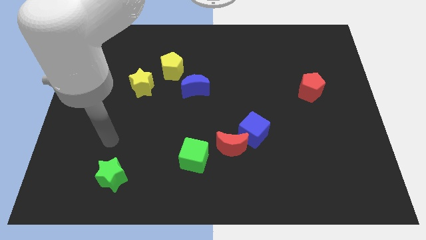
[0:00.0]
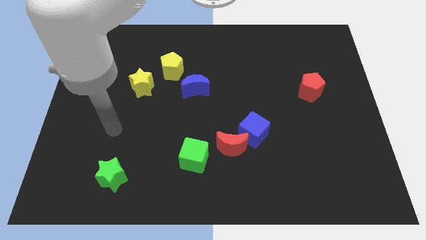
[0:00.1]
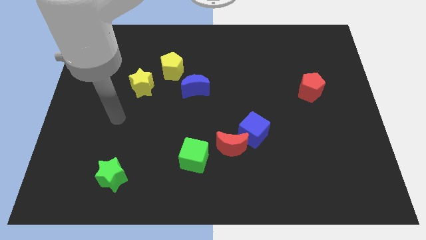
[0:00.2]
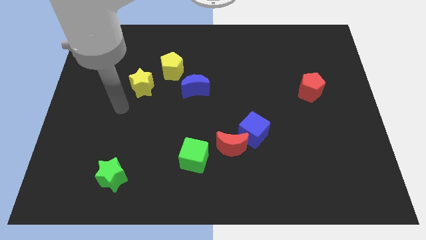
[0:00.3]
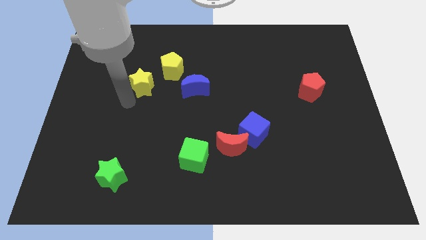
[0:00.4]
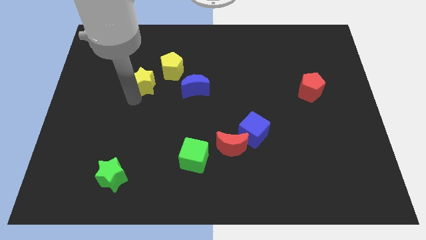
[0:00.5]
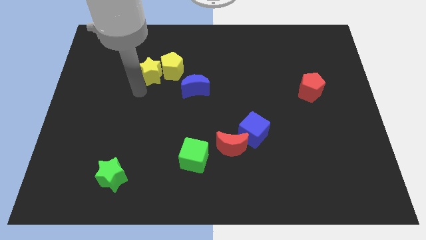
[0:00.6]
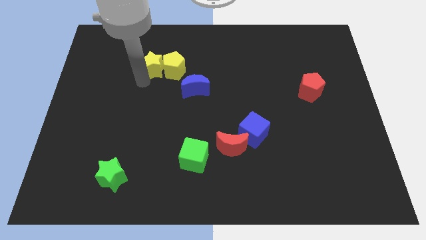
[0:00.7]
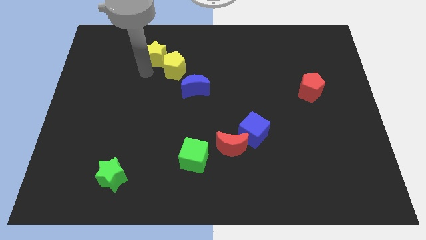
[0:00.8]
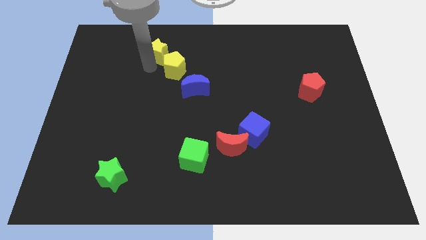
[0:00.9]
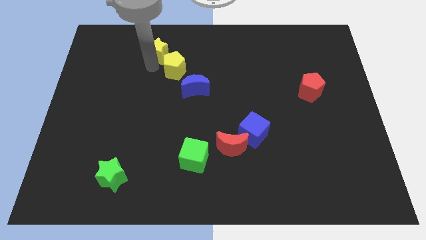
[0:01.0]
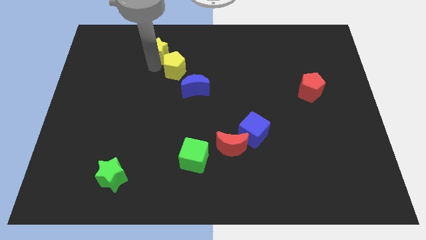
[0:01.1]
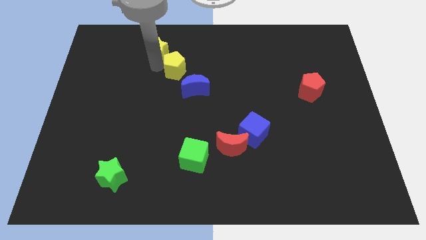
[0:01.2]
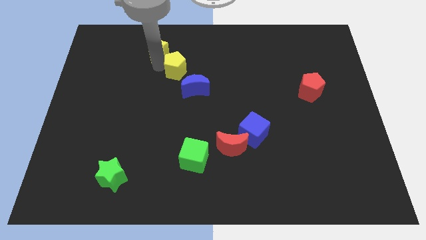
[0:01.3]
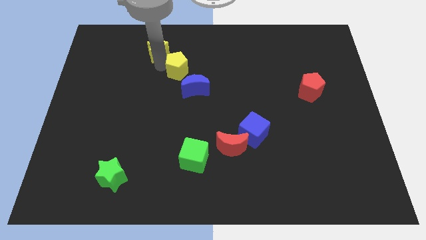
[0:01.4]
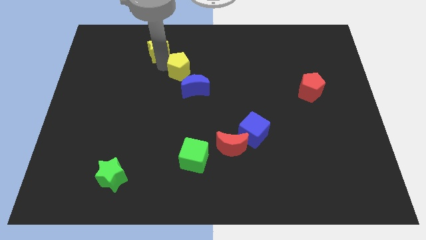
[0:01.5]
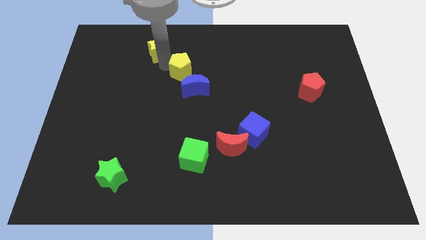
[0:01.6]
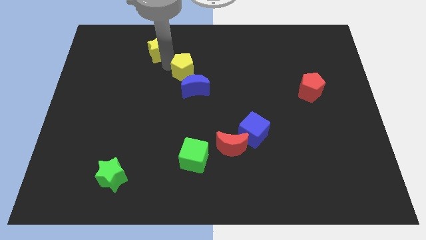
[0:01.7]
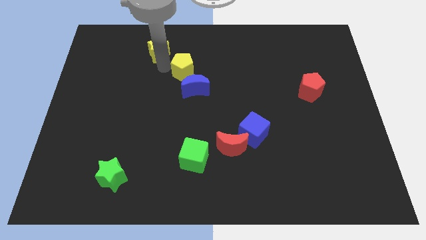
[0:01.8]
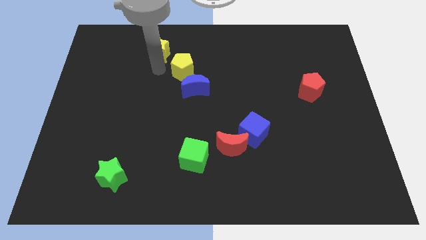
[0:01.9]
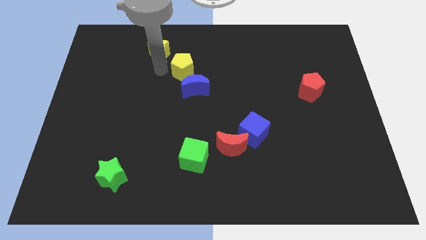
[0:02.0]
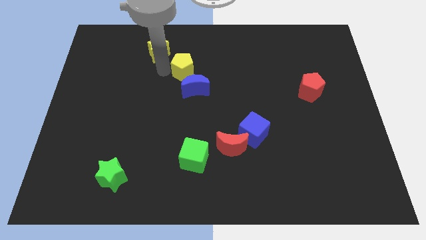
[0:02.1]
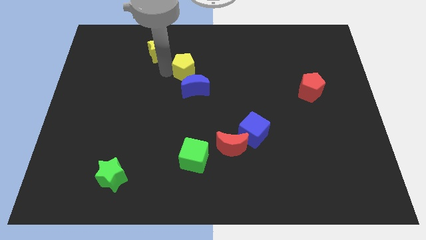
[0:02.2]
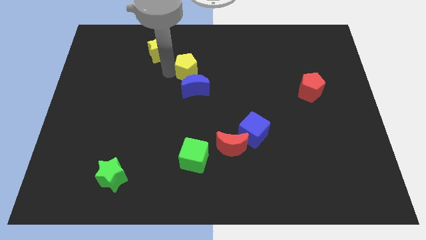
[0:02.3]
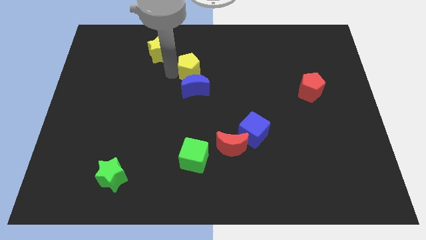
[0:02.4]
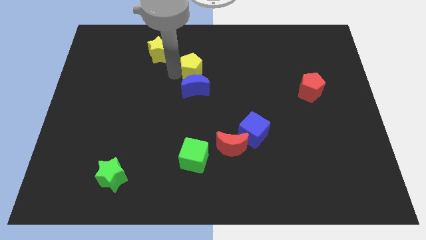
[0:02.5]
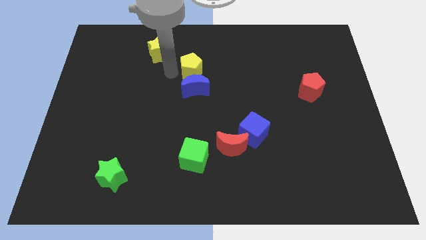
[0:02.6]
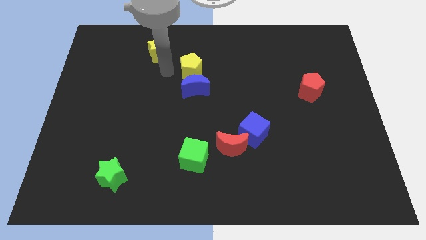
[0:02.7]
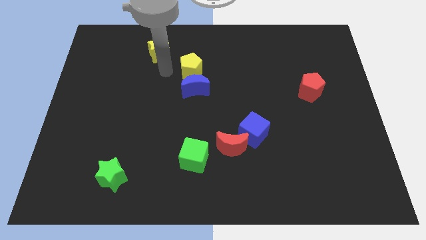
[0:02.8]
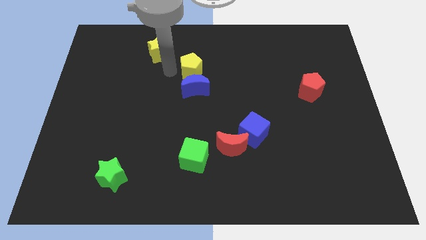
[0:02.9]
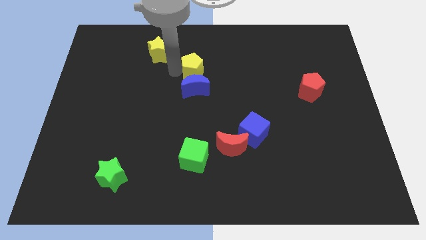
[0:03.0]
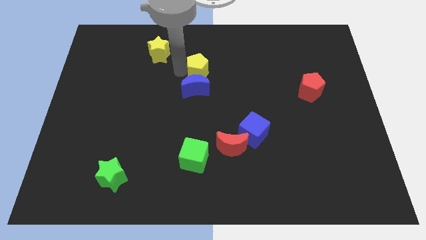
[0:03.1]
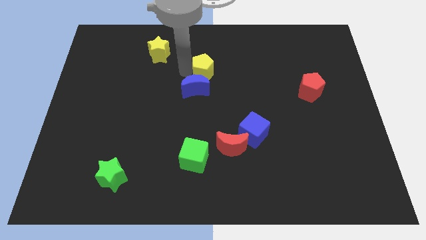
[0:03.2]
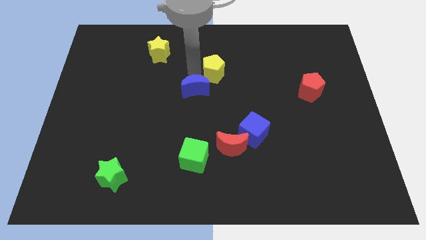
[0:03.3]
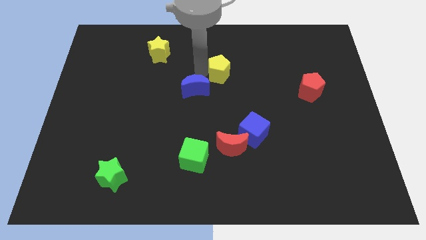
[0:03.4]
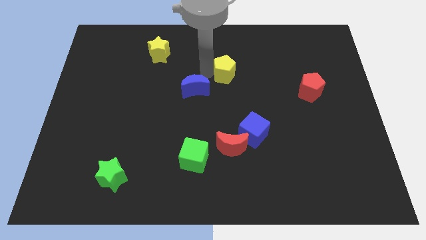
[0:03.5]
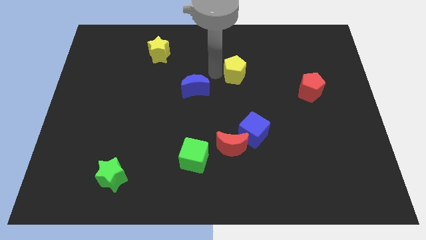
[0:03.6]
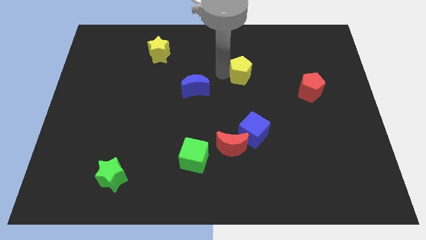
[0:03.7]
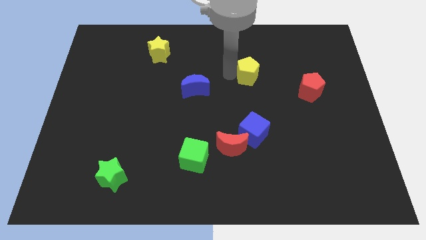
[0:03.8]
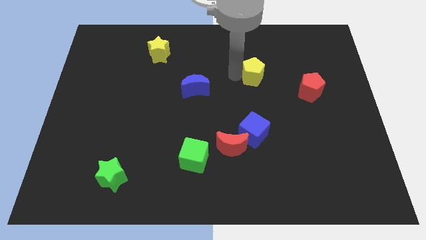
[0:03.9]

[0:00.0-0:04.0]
slide the yellow pentagon to the right

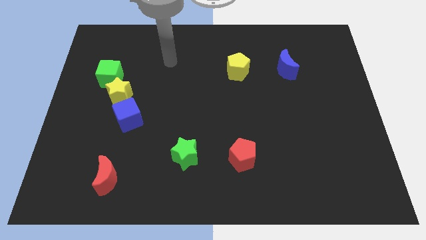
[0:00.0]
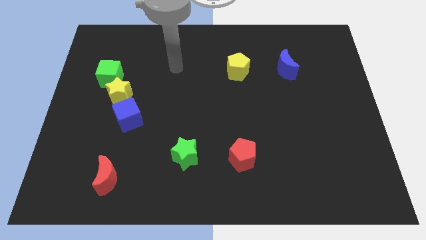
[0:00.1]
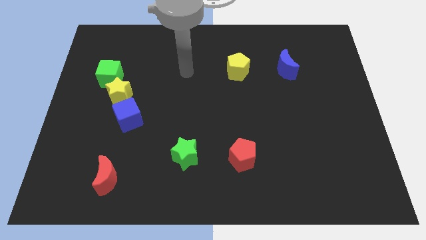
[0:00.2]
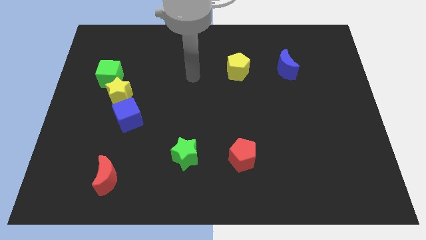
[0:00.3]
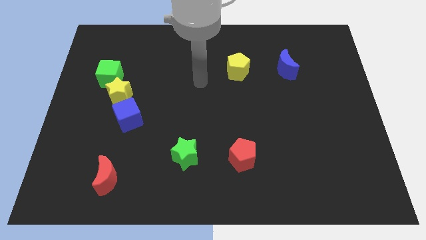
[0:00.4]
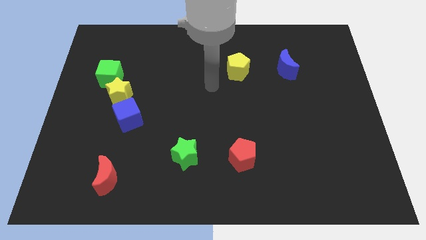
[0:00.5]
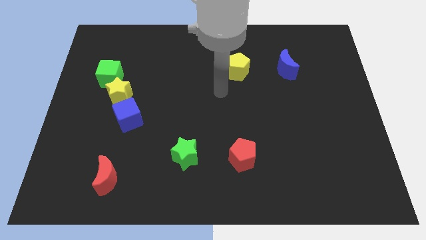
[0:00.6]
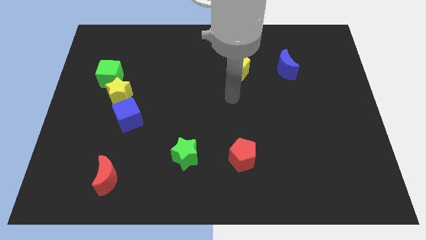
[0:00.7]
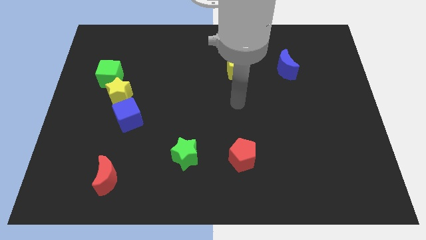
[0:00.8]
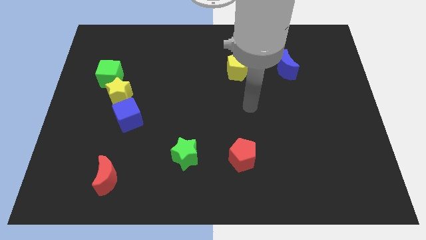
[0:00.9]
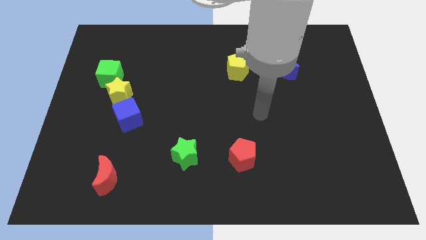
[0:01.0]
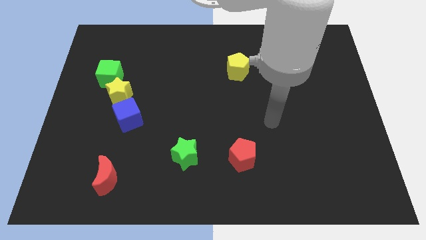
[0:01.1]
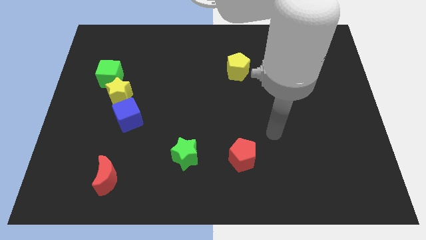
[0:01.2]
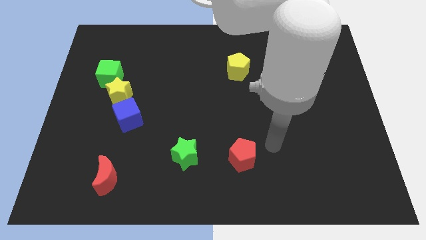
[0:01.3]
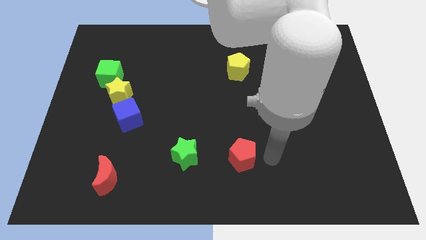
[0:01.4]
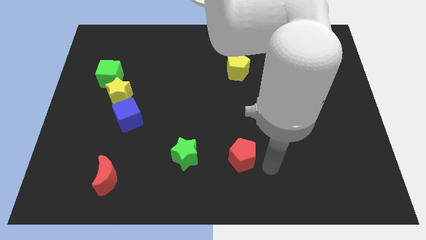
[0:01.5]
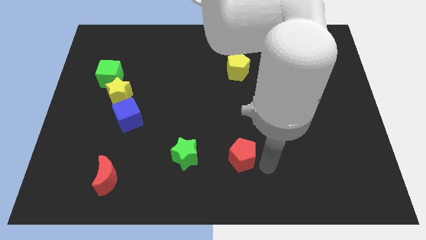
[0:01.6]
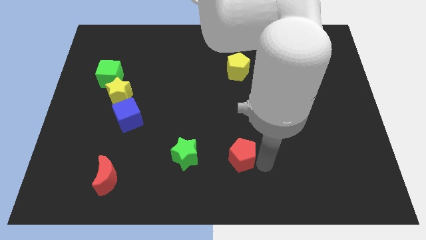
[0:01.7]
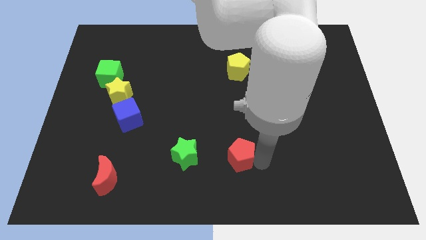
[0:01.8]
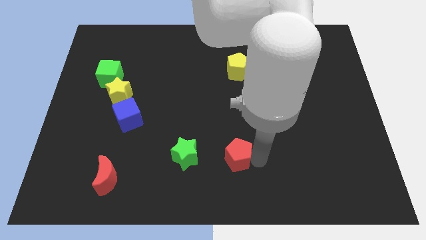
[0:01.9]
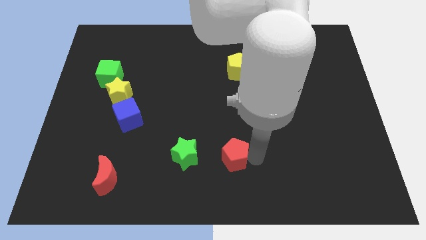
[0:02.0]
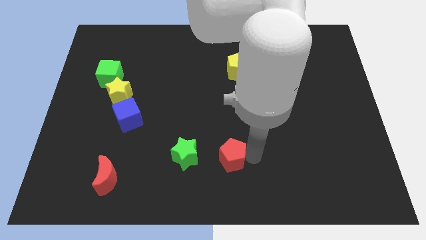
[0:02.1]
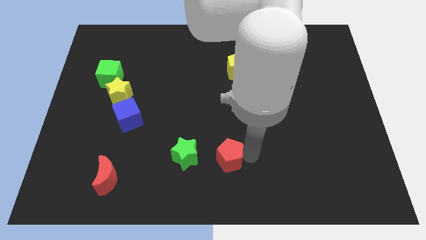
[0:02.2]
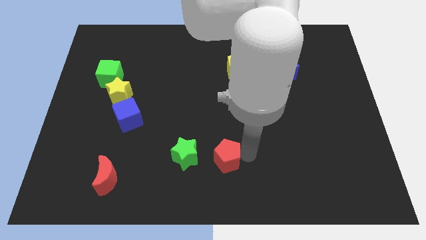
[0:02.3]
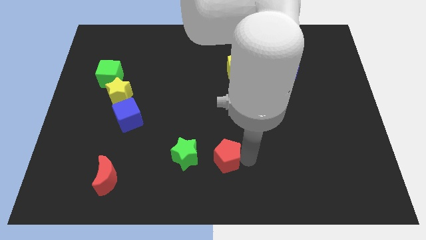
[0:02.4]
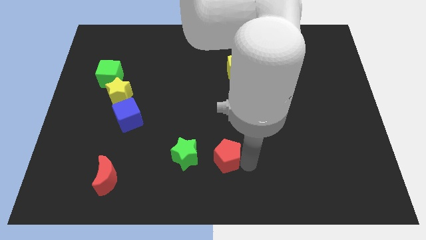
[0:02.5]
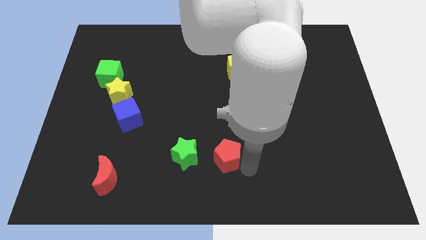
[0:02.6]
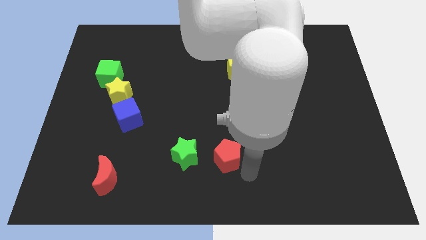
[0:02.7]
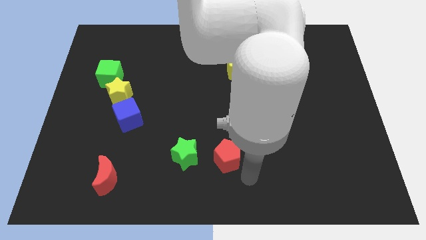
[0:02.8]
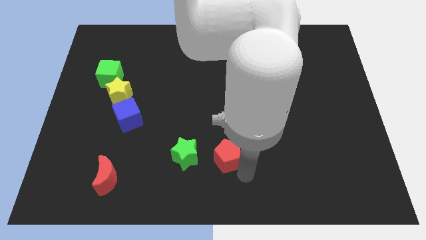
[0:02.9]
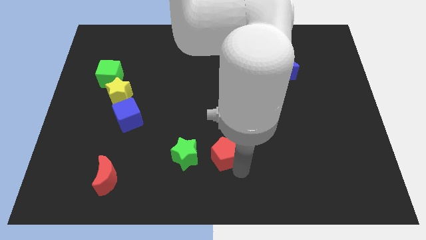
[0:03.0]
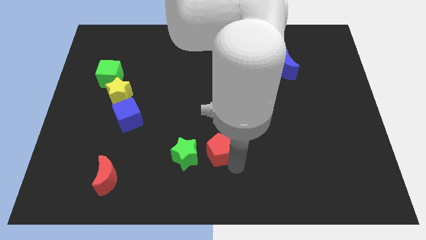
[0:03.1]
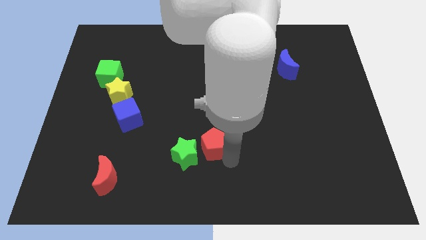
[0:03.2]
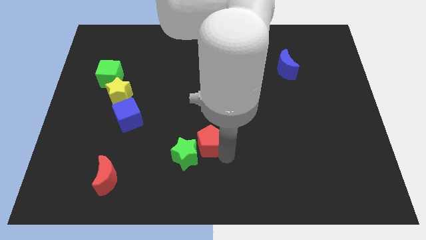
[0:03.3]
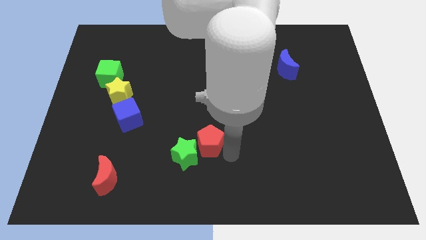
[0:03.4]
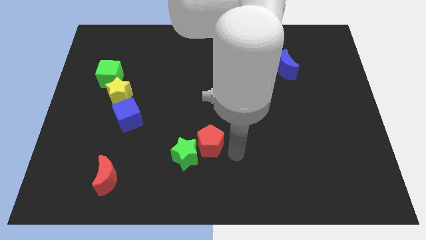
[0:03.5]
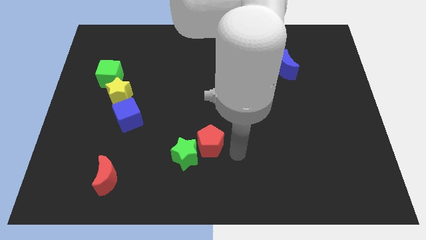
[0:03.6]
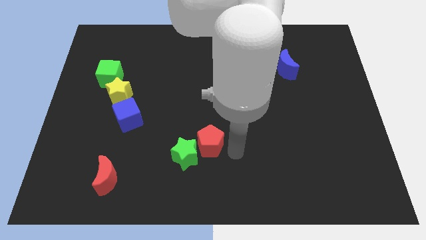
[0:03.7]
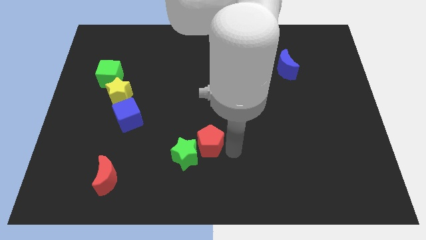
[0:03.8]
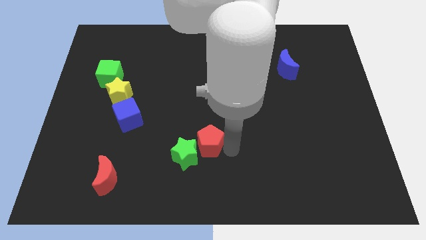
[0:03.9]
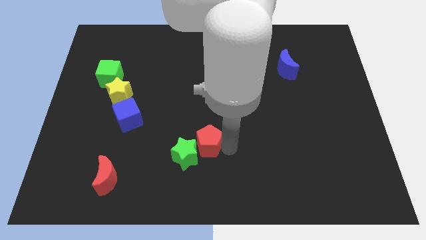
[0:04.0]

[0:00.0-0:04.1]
move the red pentagon to the left somewhat
